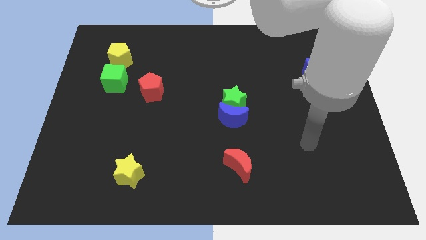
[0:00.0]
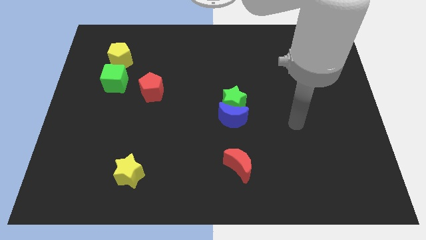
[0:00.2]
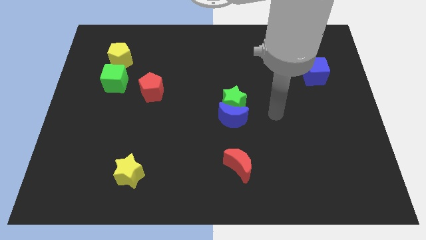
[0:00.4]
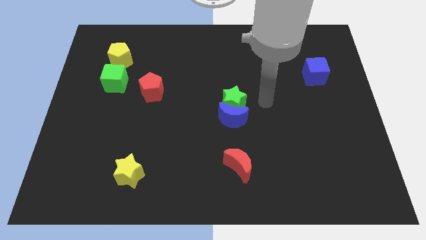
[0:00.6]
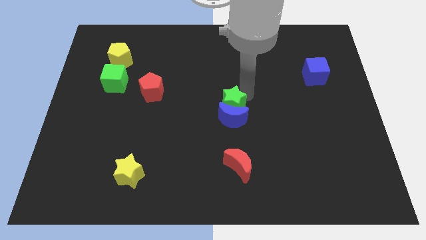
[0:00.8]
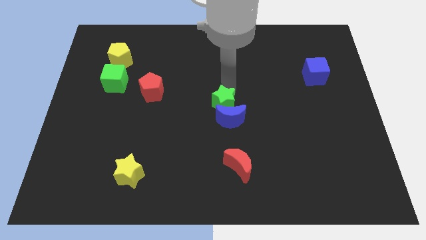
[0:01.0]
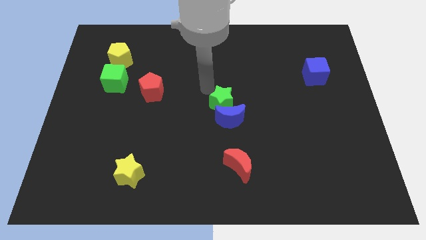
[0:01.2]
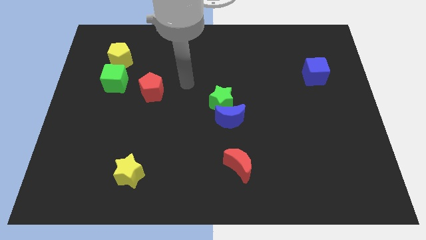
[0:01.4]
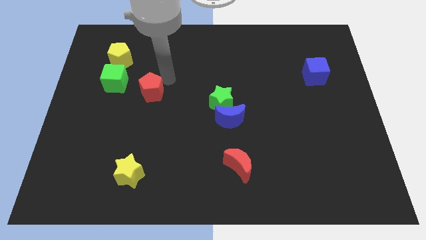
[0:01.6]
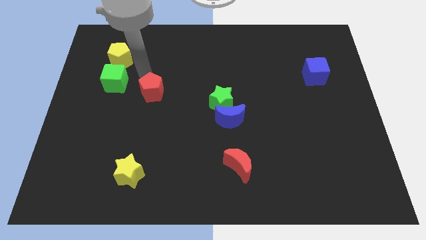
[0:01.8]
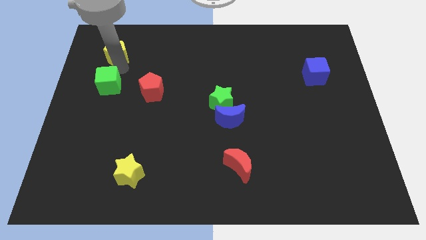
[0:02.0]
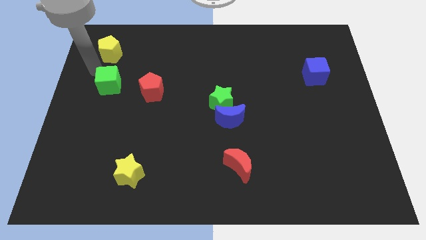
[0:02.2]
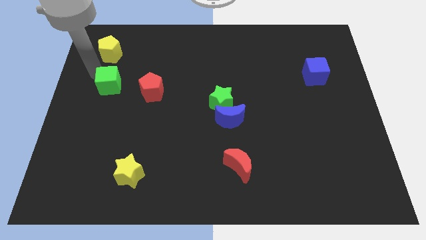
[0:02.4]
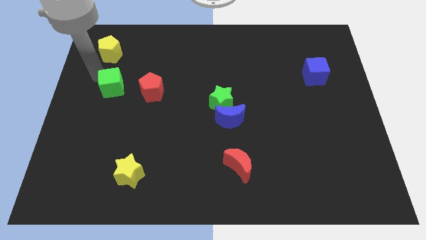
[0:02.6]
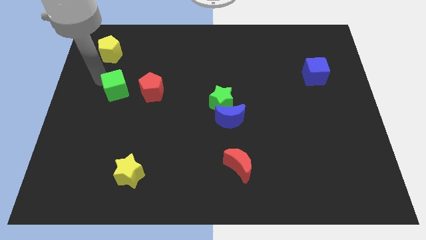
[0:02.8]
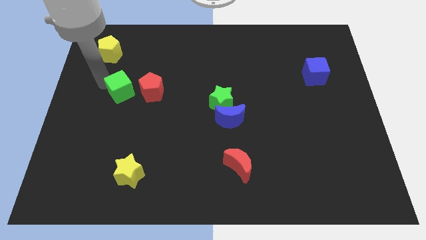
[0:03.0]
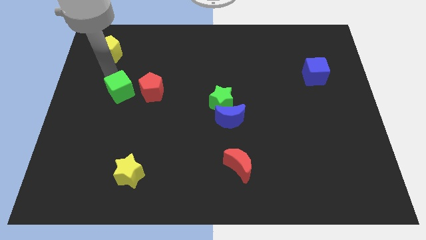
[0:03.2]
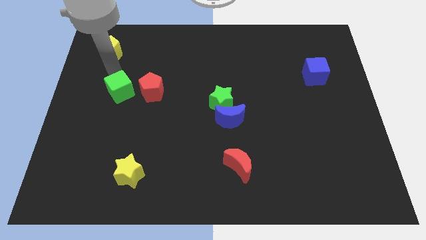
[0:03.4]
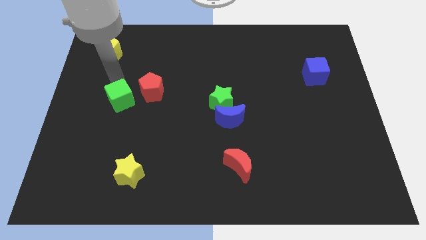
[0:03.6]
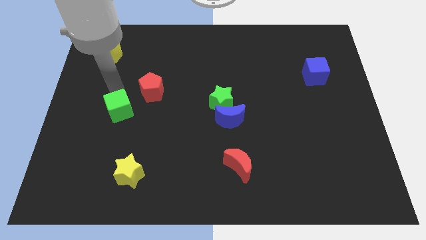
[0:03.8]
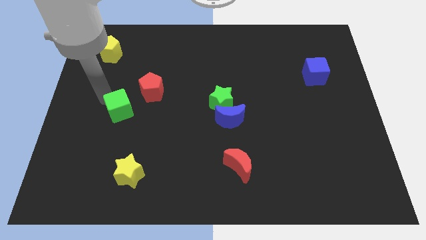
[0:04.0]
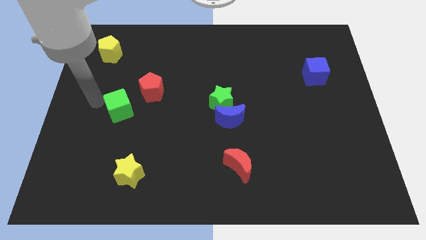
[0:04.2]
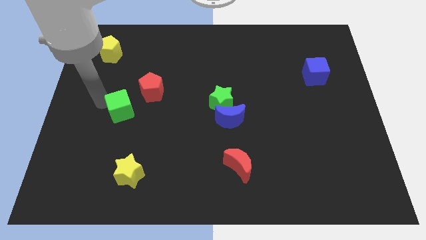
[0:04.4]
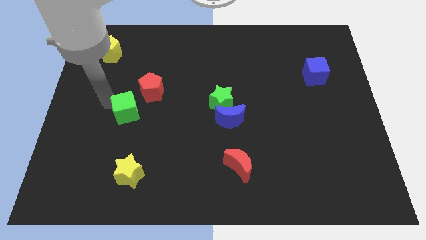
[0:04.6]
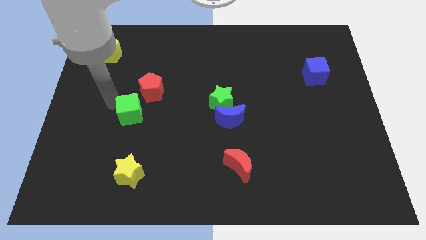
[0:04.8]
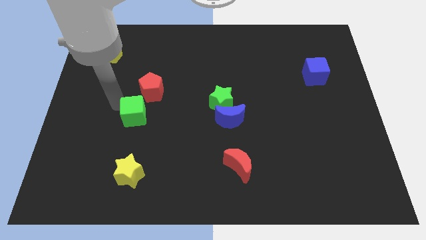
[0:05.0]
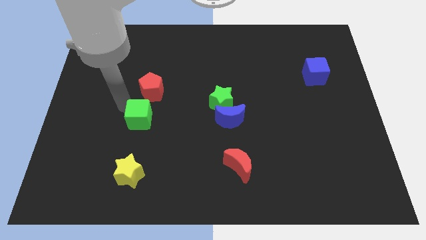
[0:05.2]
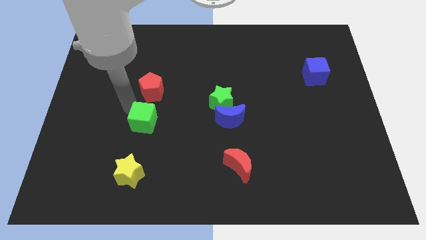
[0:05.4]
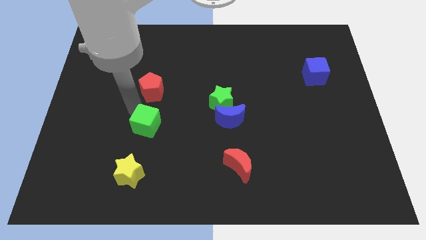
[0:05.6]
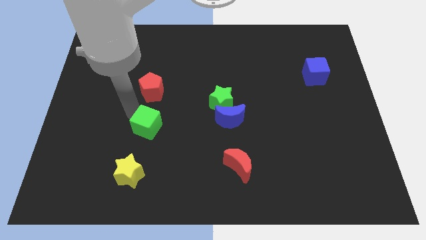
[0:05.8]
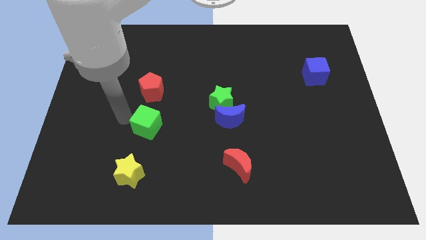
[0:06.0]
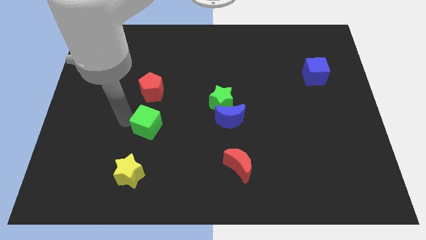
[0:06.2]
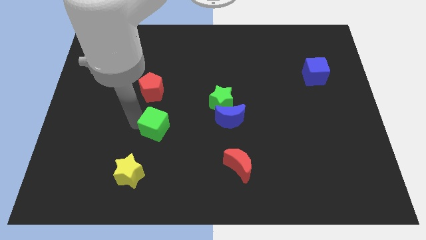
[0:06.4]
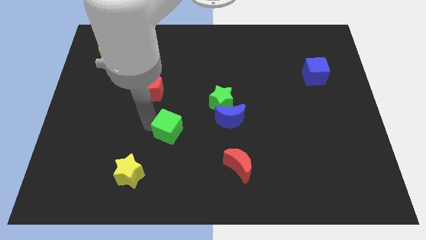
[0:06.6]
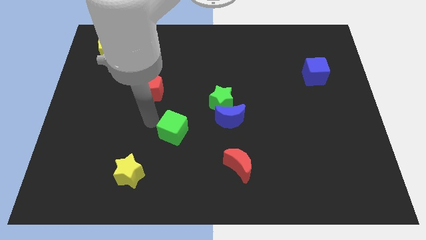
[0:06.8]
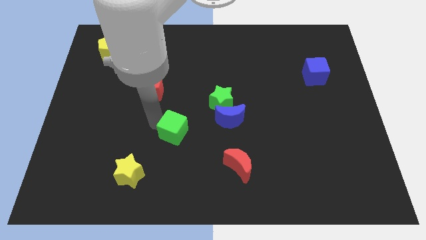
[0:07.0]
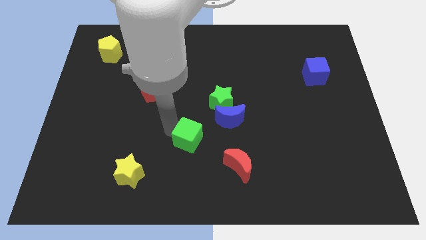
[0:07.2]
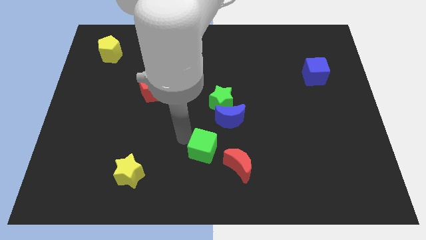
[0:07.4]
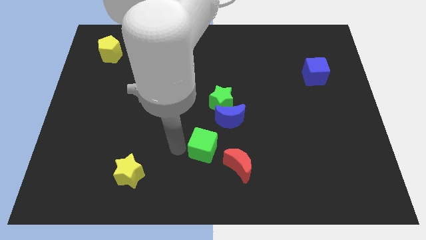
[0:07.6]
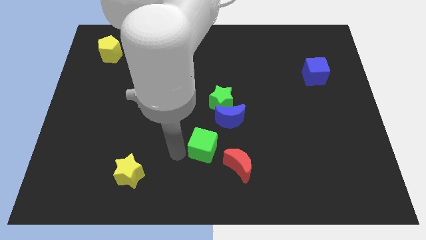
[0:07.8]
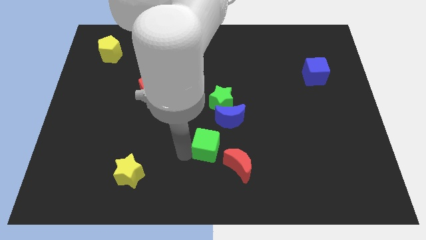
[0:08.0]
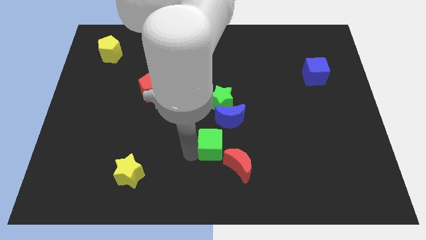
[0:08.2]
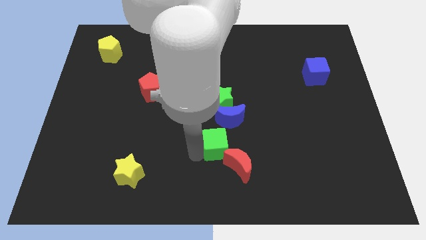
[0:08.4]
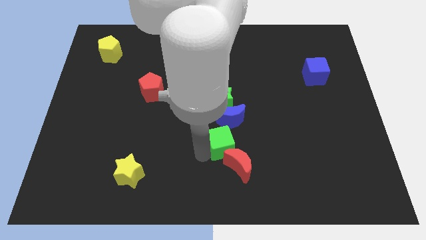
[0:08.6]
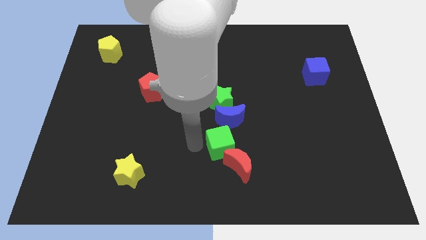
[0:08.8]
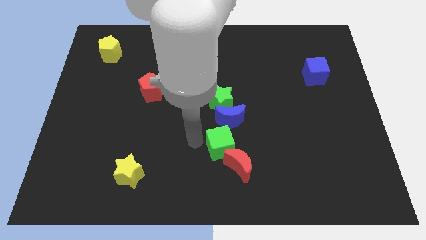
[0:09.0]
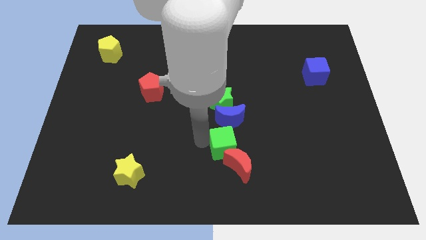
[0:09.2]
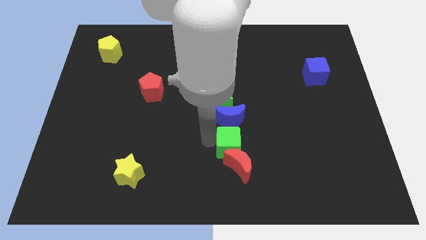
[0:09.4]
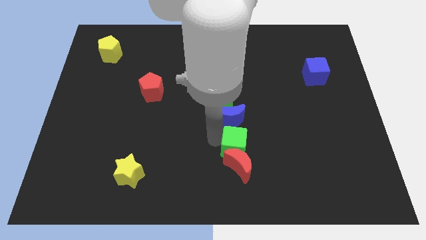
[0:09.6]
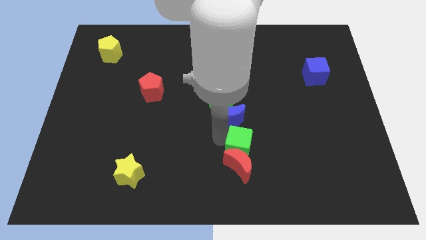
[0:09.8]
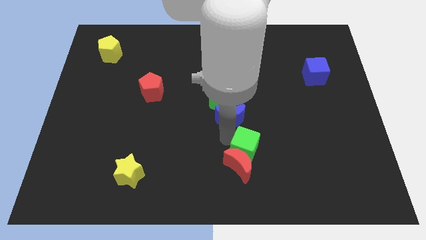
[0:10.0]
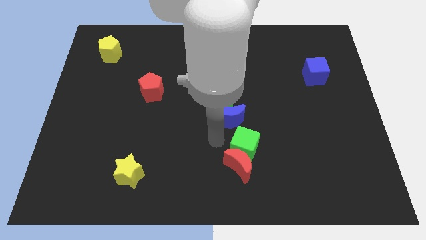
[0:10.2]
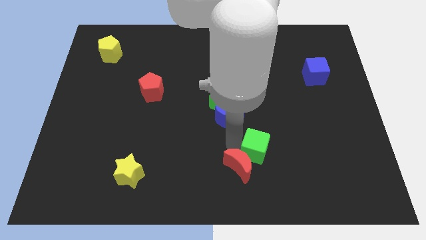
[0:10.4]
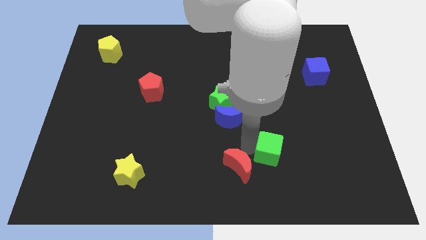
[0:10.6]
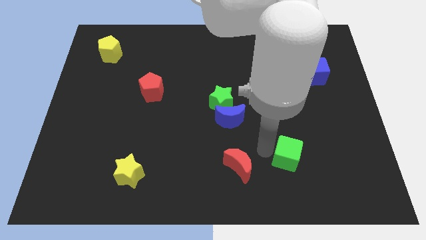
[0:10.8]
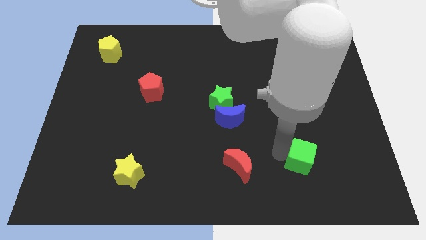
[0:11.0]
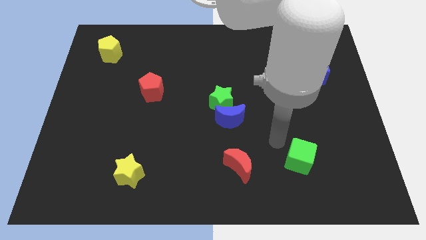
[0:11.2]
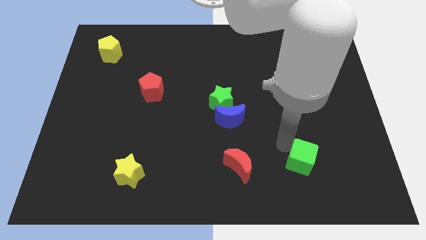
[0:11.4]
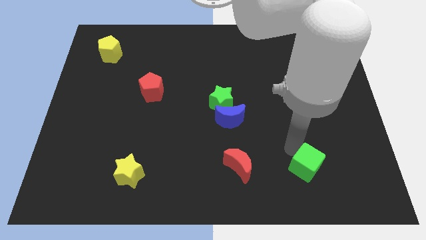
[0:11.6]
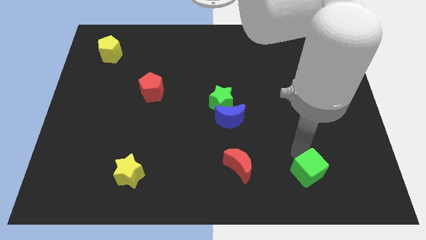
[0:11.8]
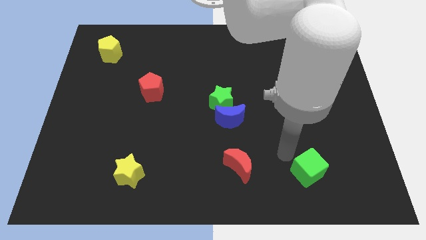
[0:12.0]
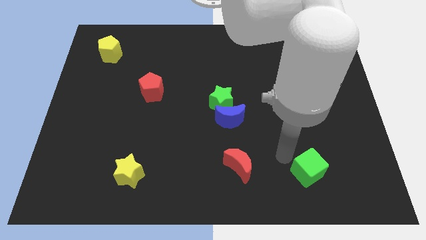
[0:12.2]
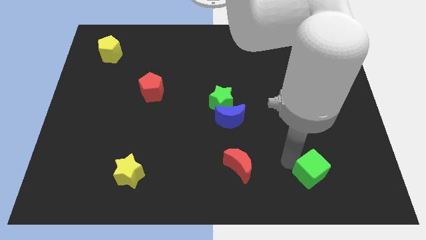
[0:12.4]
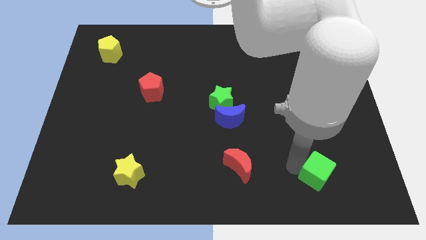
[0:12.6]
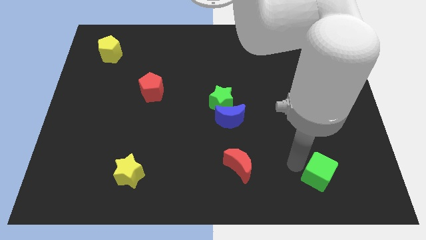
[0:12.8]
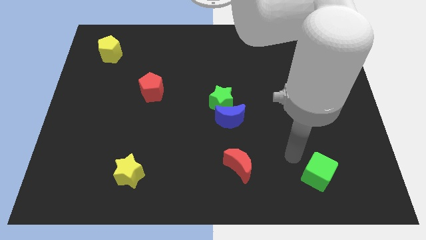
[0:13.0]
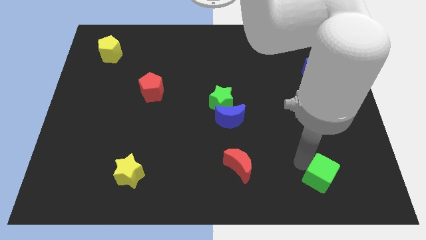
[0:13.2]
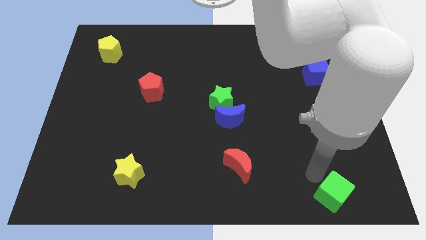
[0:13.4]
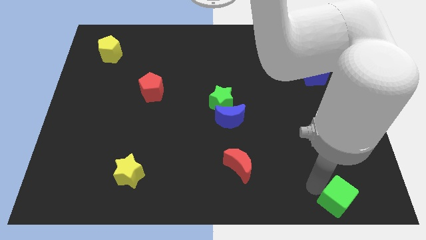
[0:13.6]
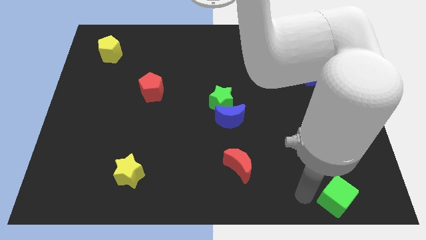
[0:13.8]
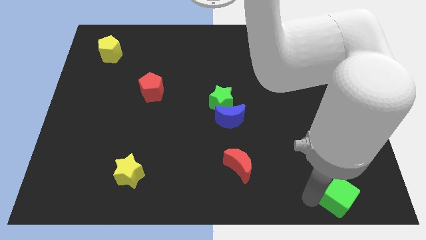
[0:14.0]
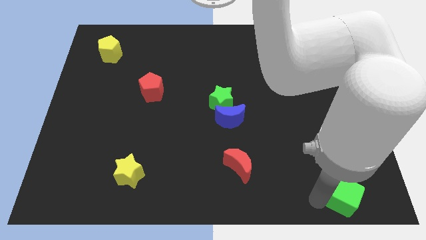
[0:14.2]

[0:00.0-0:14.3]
move the green cube to the lower right corner
